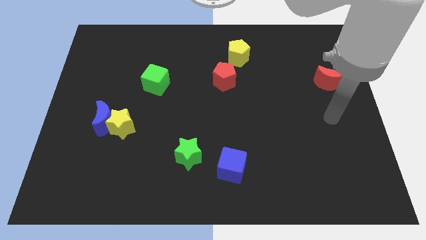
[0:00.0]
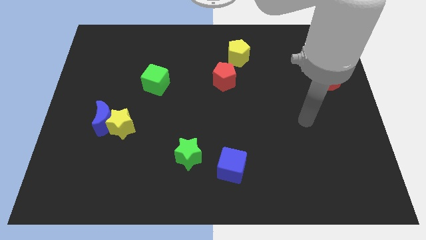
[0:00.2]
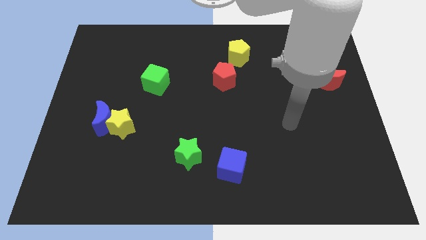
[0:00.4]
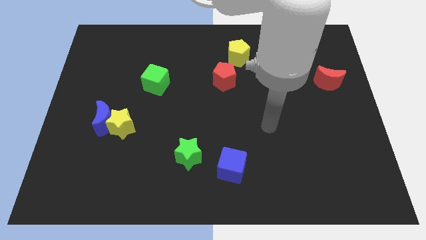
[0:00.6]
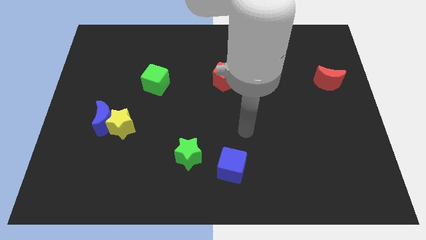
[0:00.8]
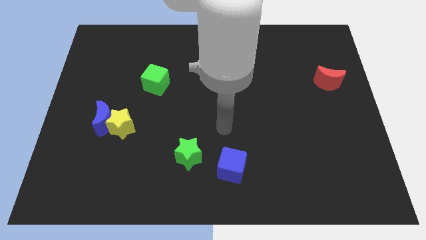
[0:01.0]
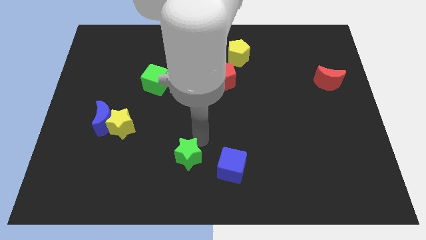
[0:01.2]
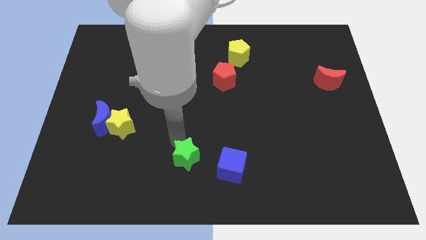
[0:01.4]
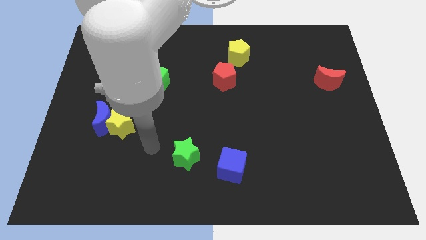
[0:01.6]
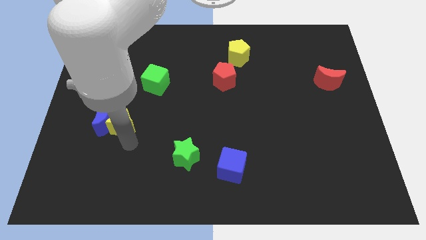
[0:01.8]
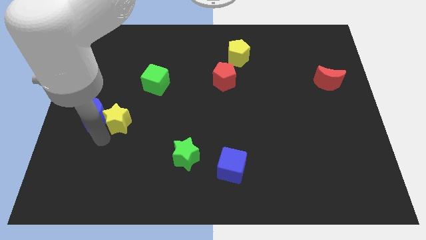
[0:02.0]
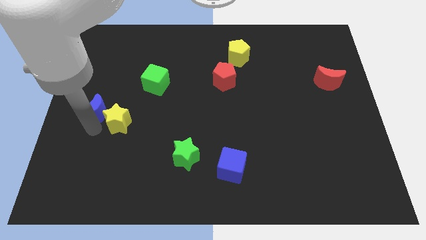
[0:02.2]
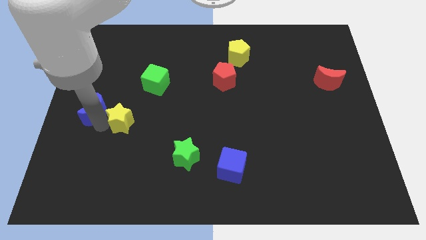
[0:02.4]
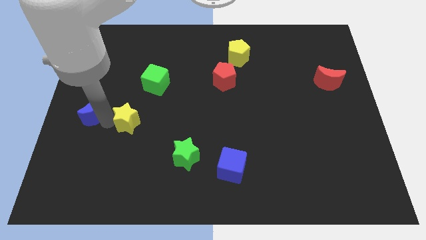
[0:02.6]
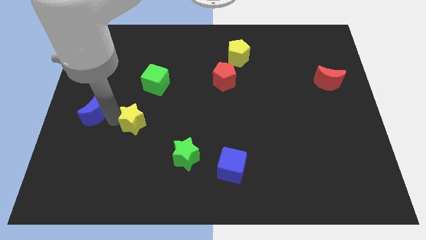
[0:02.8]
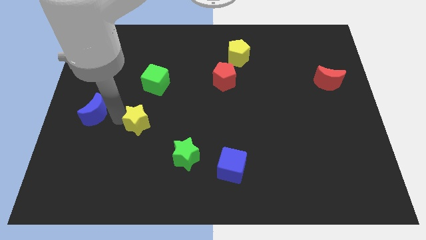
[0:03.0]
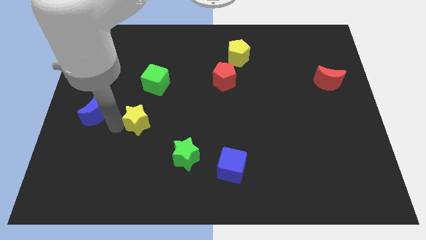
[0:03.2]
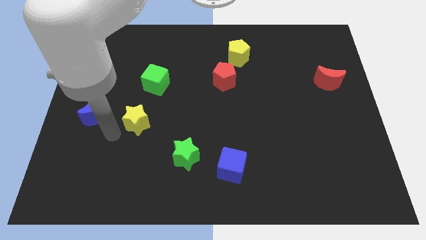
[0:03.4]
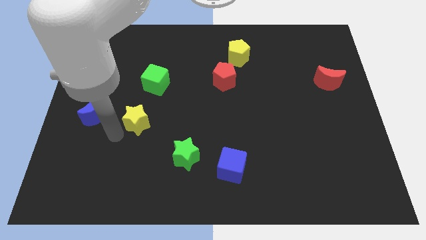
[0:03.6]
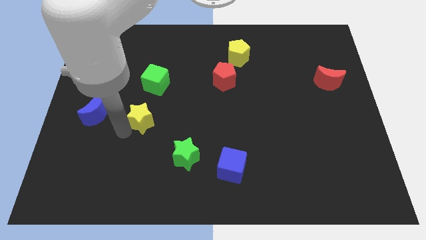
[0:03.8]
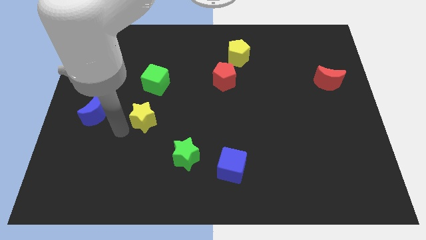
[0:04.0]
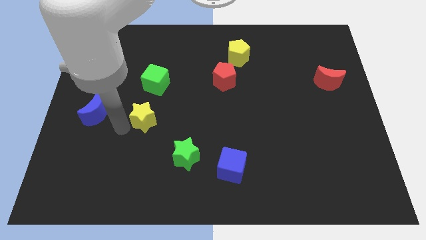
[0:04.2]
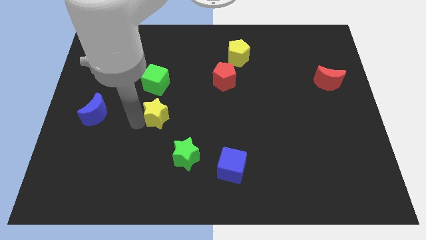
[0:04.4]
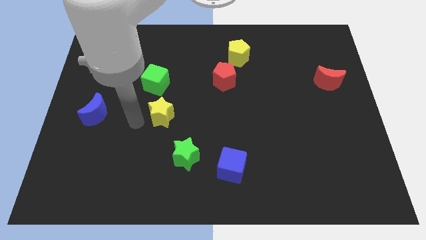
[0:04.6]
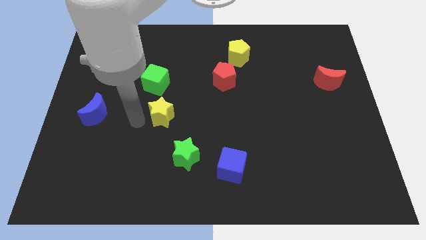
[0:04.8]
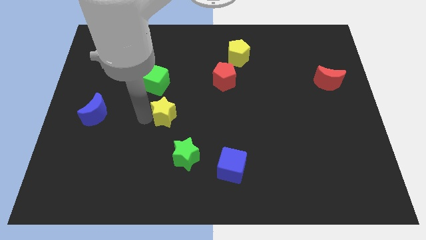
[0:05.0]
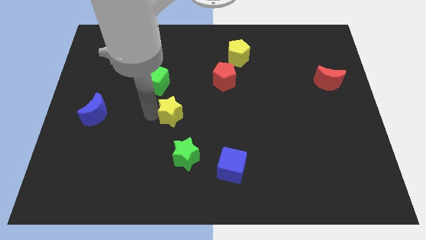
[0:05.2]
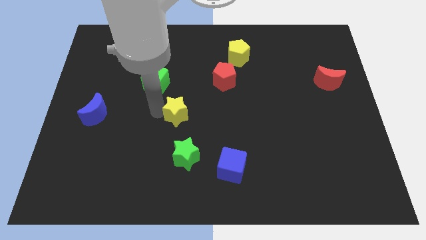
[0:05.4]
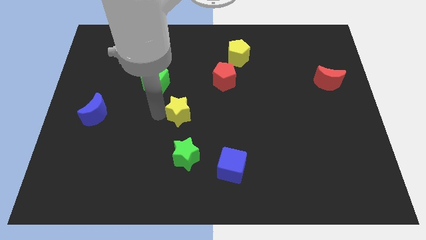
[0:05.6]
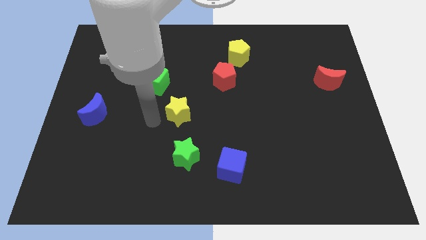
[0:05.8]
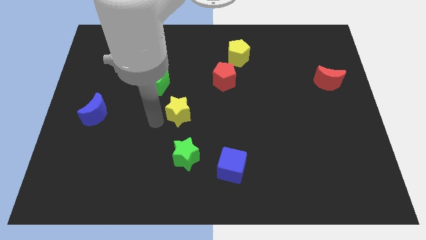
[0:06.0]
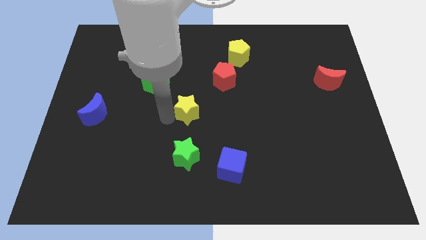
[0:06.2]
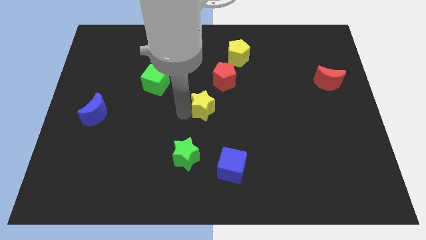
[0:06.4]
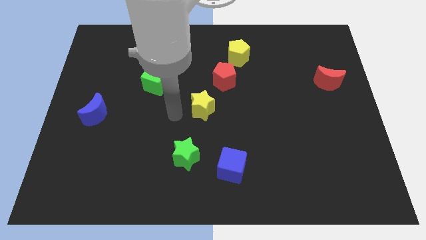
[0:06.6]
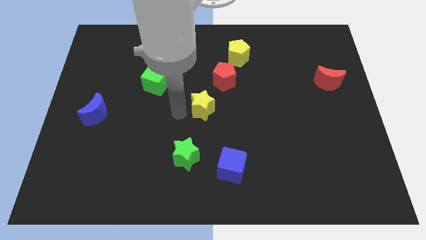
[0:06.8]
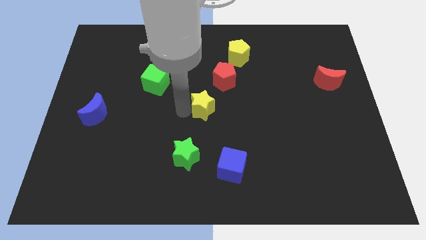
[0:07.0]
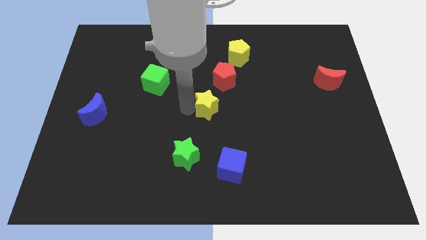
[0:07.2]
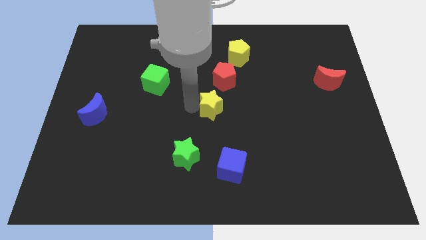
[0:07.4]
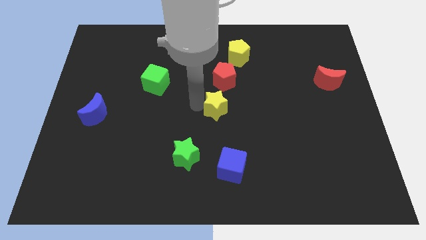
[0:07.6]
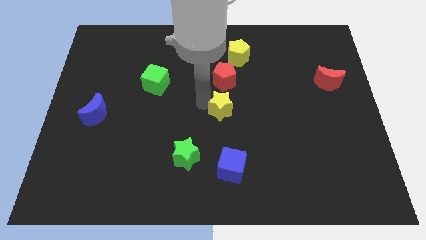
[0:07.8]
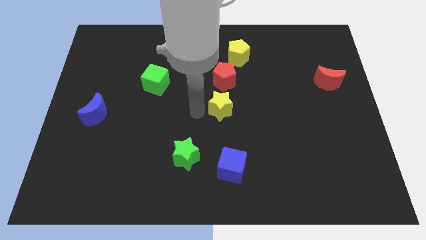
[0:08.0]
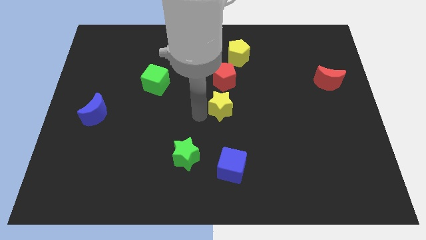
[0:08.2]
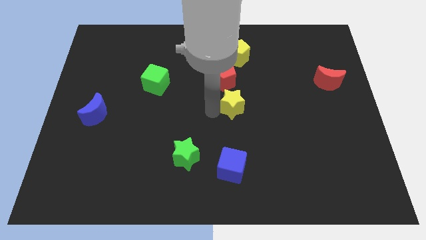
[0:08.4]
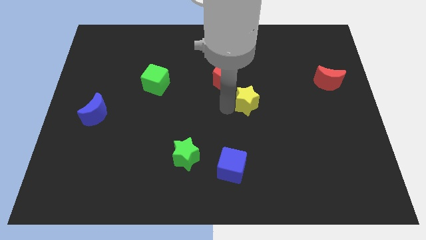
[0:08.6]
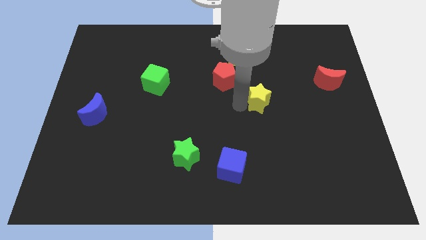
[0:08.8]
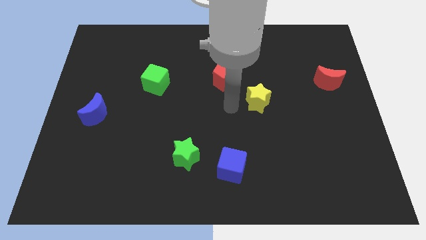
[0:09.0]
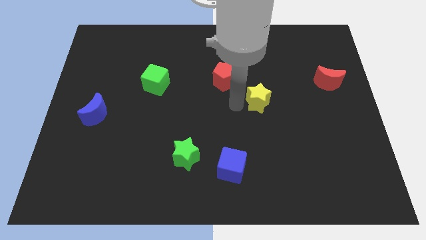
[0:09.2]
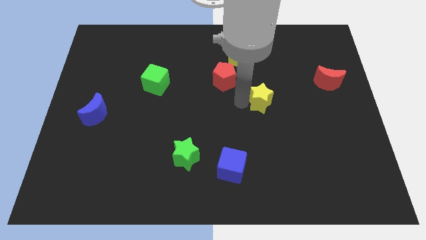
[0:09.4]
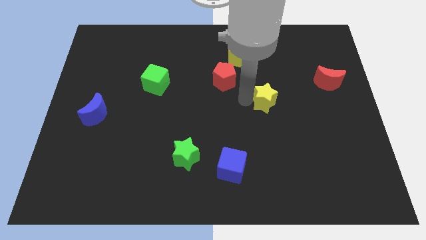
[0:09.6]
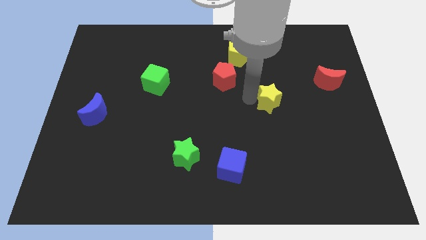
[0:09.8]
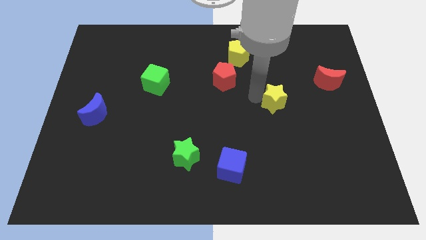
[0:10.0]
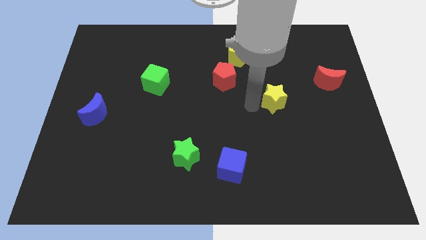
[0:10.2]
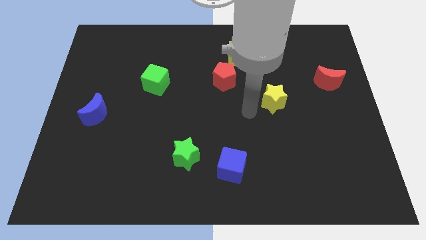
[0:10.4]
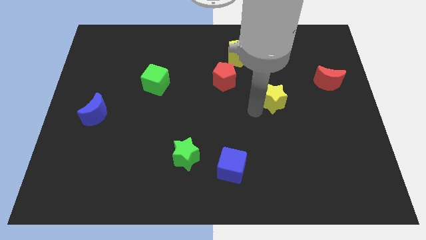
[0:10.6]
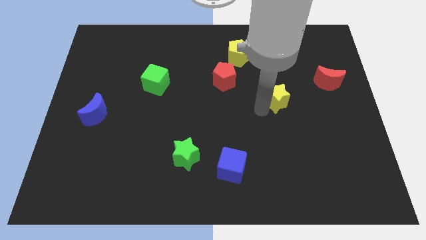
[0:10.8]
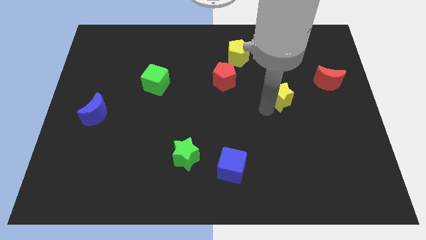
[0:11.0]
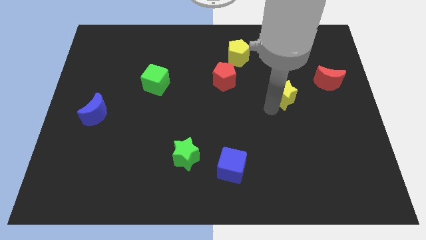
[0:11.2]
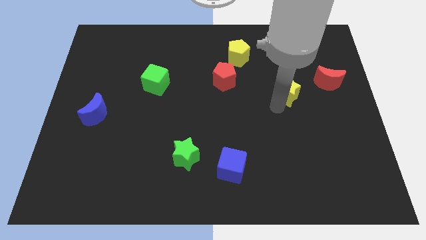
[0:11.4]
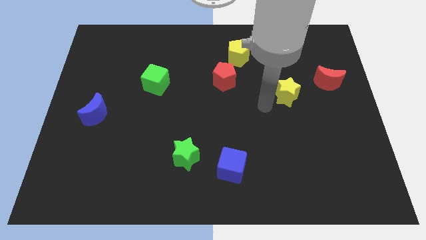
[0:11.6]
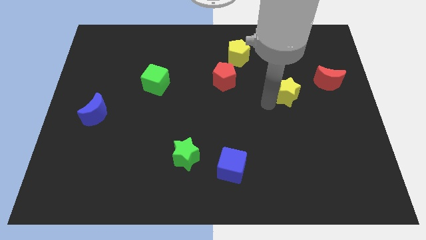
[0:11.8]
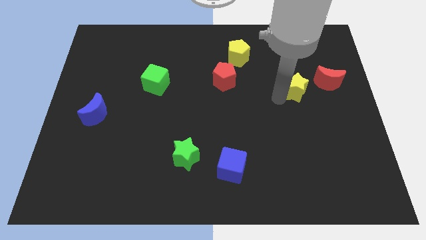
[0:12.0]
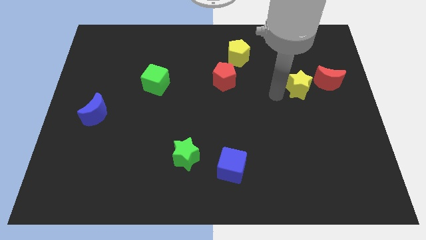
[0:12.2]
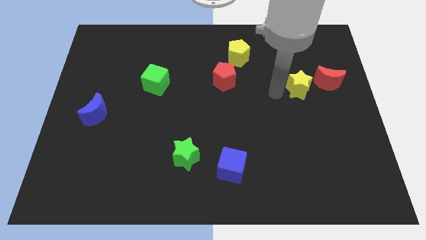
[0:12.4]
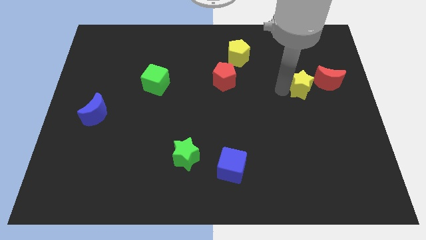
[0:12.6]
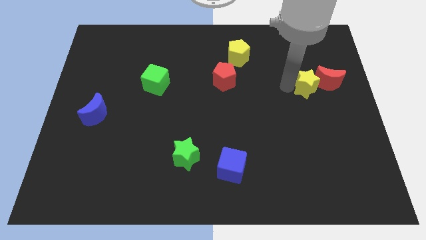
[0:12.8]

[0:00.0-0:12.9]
push the yellow star towards the red moon
